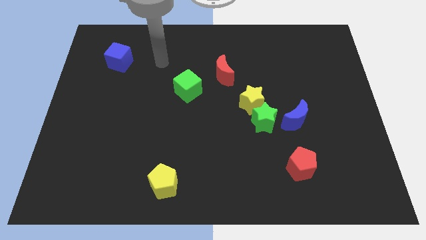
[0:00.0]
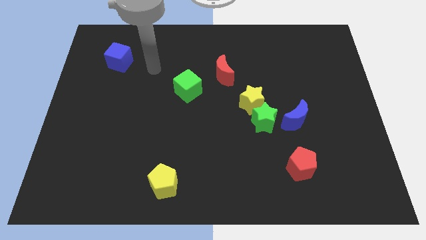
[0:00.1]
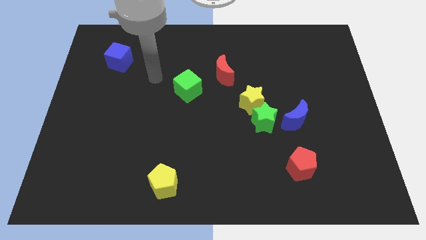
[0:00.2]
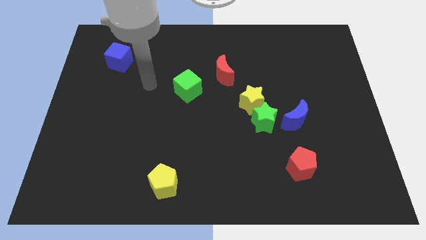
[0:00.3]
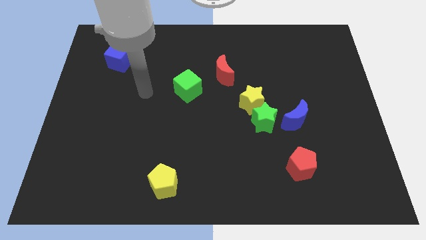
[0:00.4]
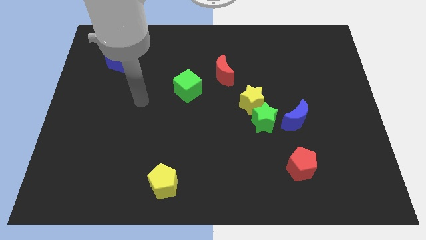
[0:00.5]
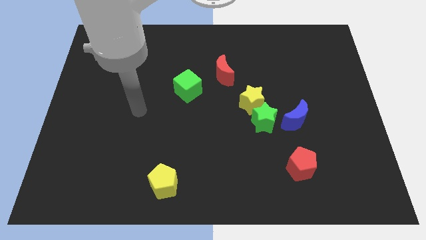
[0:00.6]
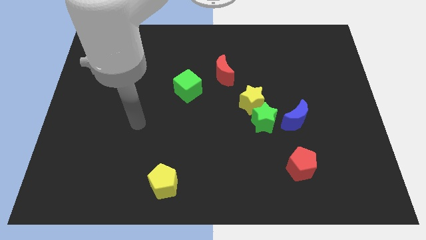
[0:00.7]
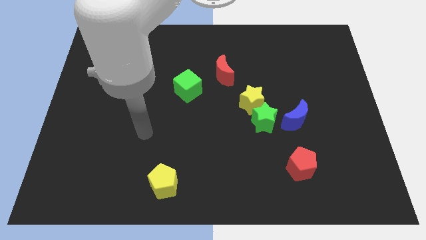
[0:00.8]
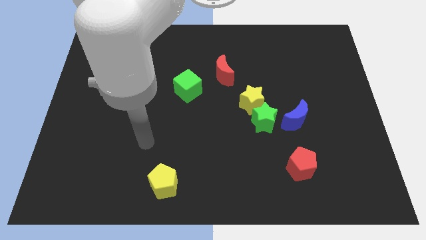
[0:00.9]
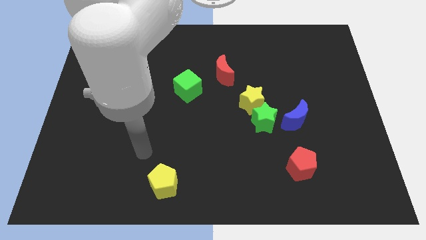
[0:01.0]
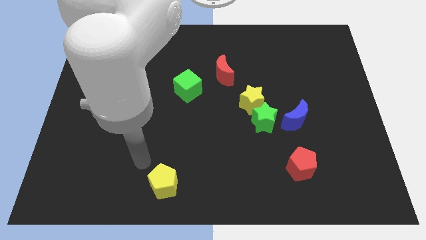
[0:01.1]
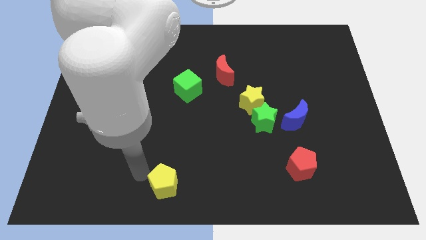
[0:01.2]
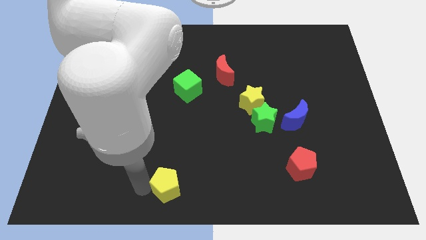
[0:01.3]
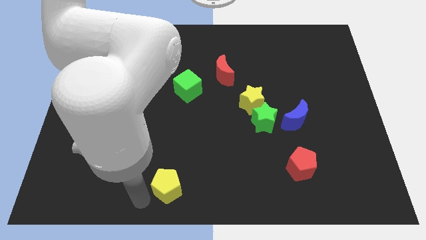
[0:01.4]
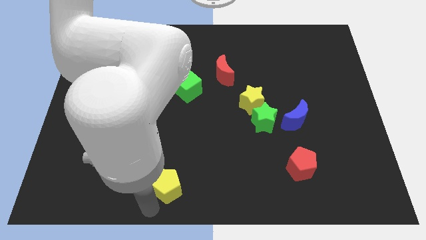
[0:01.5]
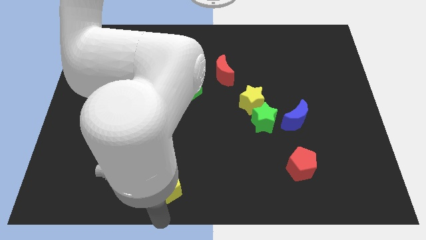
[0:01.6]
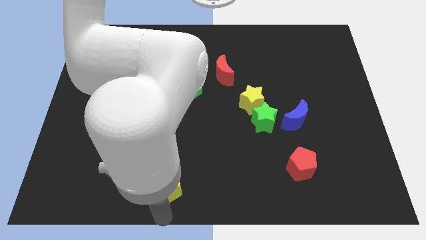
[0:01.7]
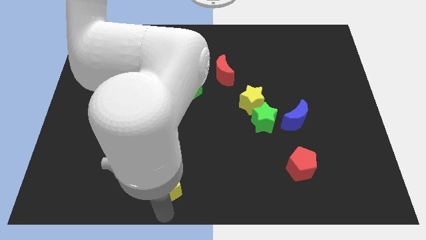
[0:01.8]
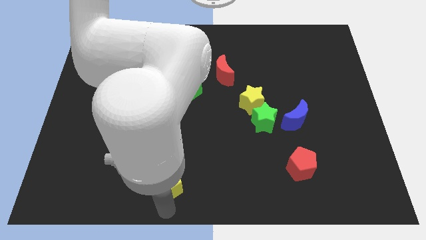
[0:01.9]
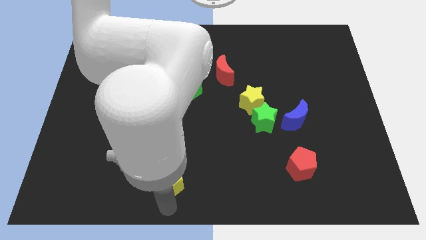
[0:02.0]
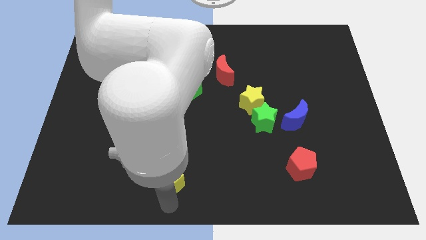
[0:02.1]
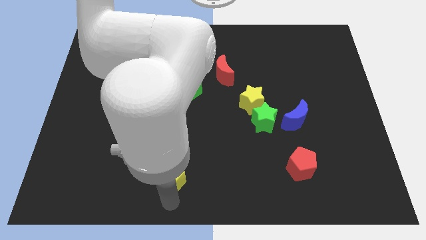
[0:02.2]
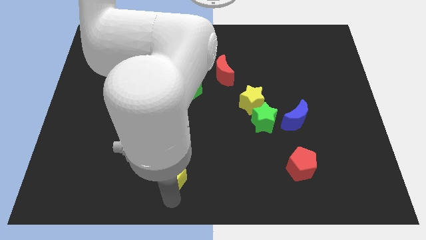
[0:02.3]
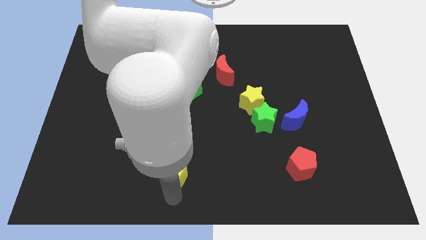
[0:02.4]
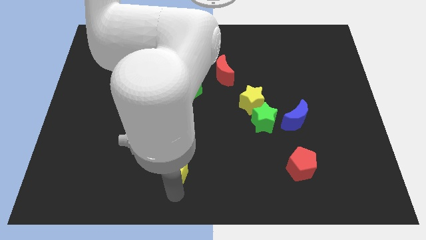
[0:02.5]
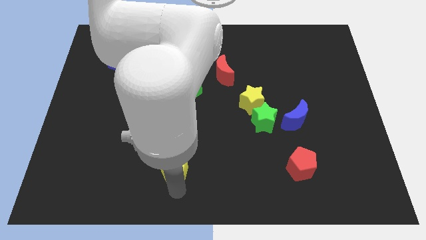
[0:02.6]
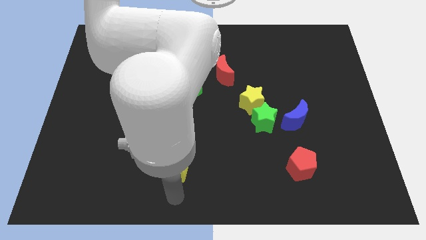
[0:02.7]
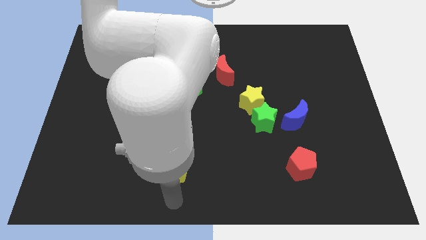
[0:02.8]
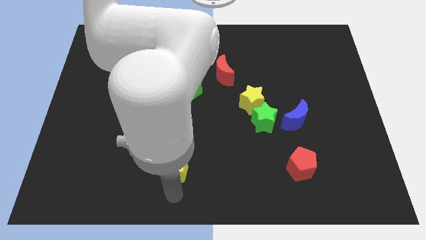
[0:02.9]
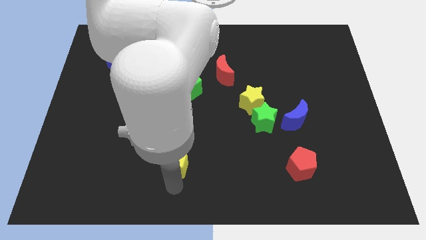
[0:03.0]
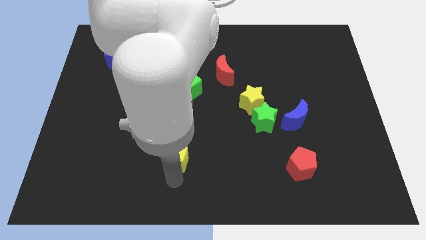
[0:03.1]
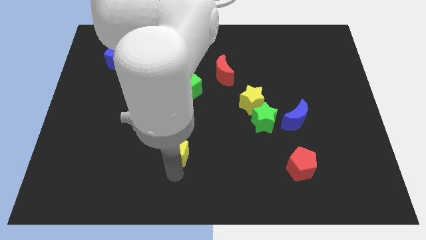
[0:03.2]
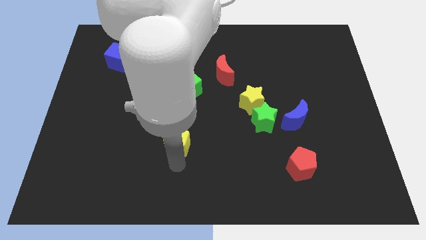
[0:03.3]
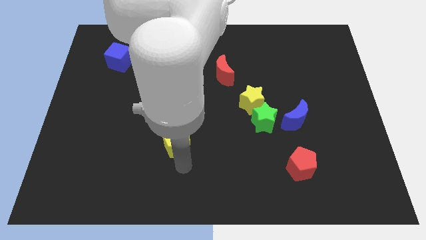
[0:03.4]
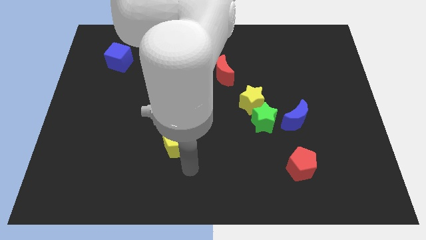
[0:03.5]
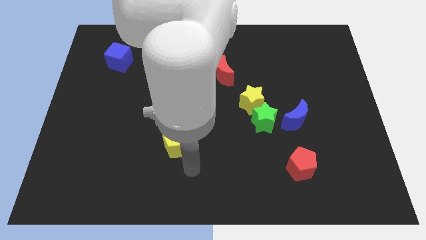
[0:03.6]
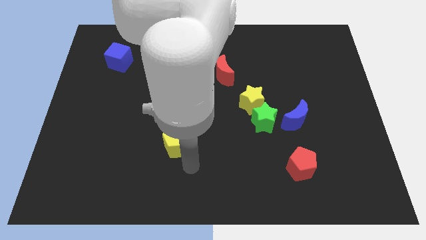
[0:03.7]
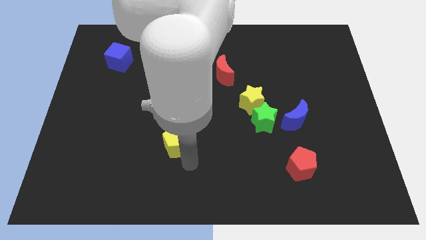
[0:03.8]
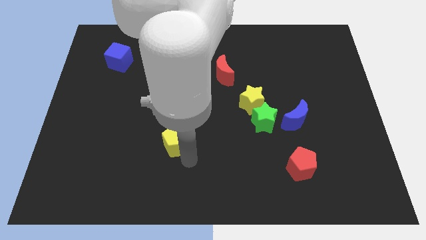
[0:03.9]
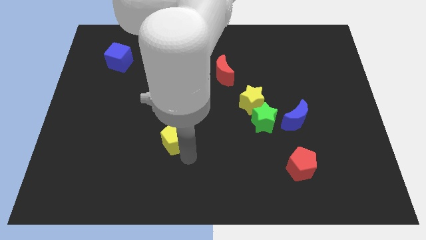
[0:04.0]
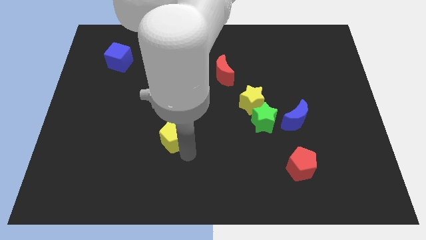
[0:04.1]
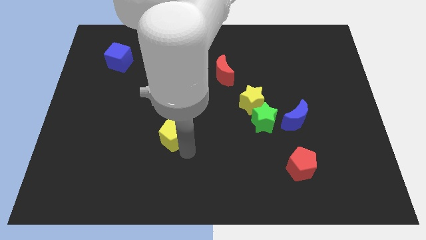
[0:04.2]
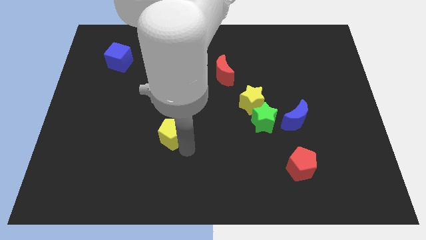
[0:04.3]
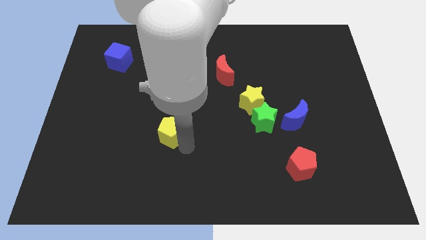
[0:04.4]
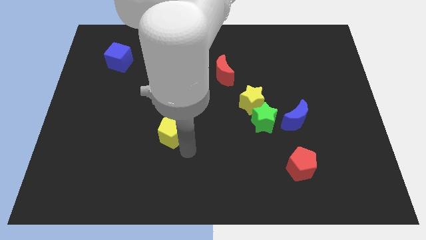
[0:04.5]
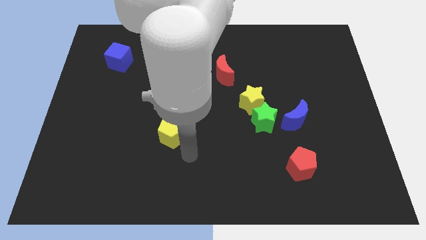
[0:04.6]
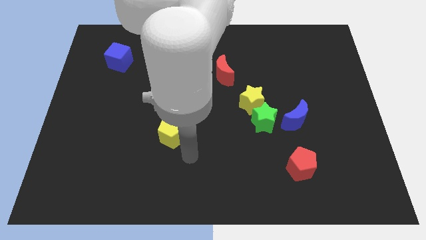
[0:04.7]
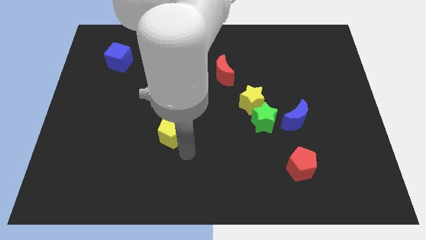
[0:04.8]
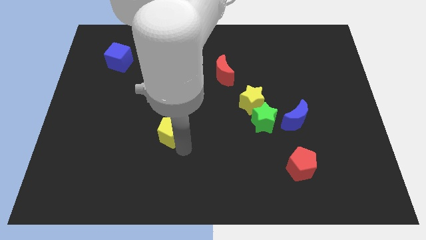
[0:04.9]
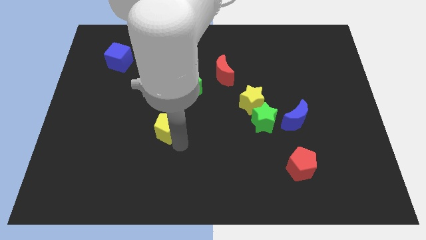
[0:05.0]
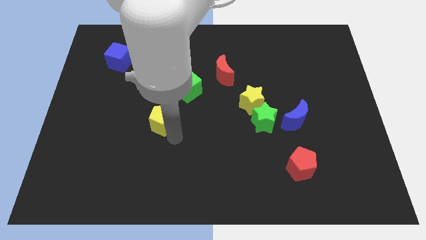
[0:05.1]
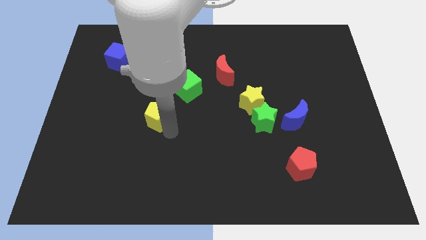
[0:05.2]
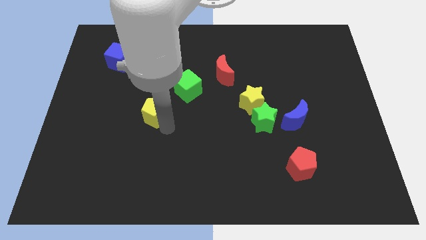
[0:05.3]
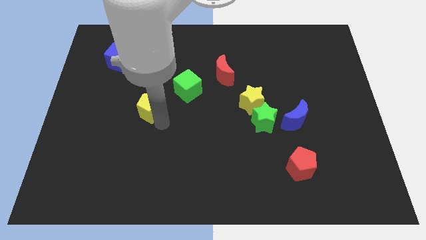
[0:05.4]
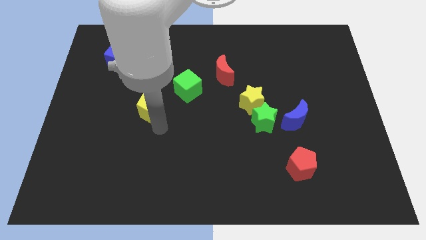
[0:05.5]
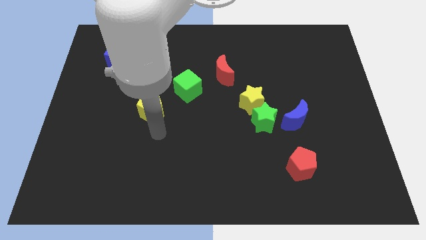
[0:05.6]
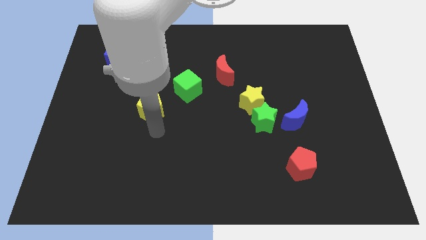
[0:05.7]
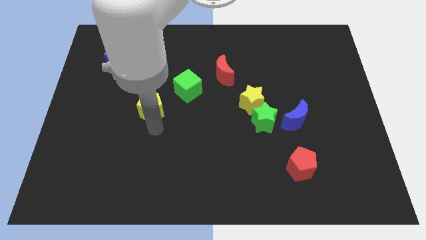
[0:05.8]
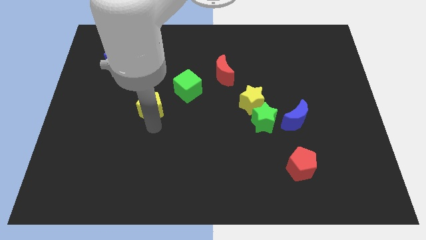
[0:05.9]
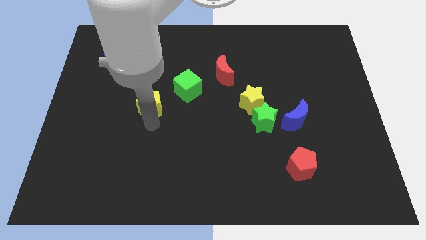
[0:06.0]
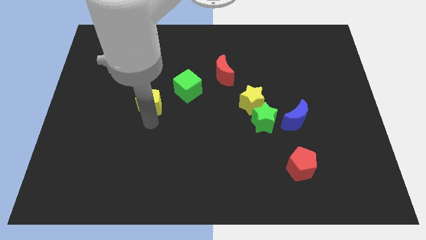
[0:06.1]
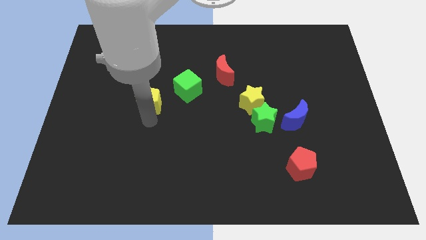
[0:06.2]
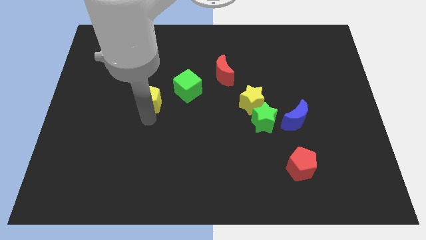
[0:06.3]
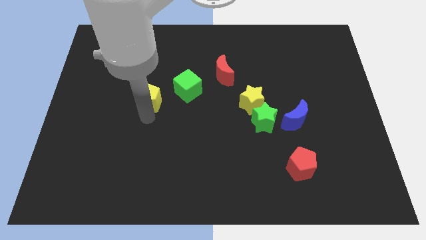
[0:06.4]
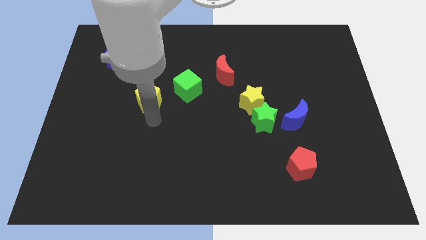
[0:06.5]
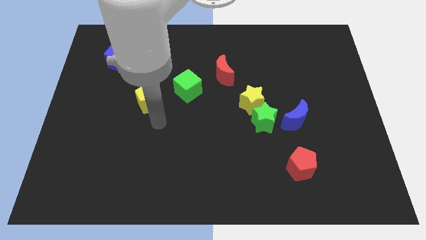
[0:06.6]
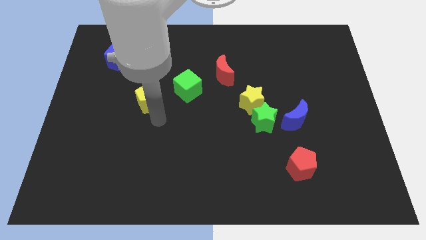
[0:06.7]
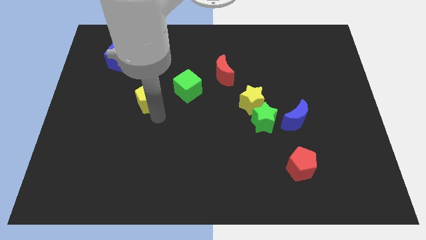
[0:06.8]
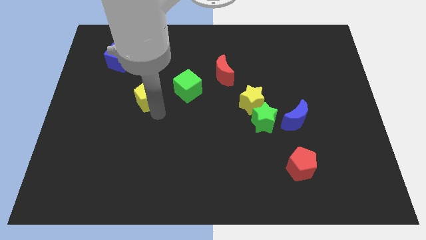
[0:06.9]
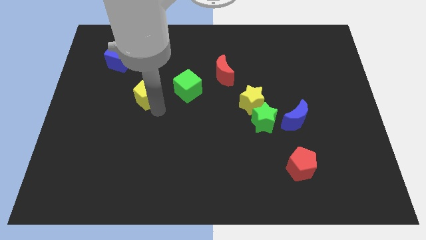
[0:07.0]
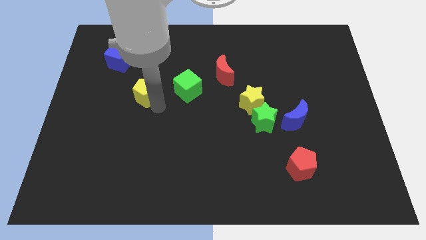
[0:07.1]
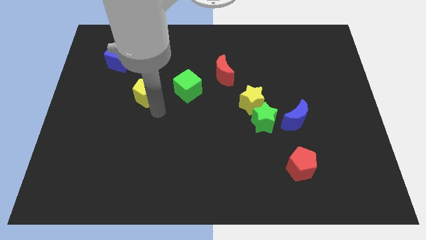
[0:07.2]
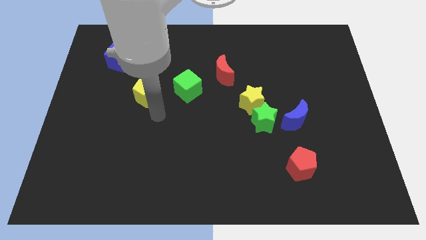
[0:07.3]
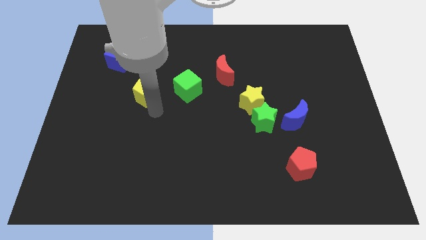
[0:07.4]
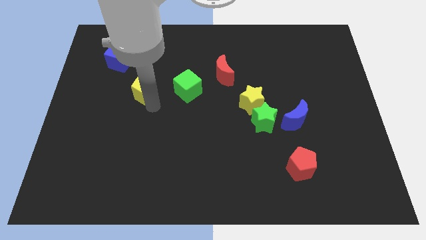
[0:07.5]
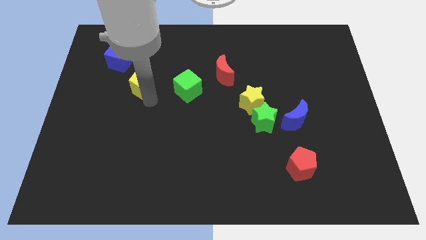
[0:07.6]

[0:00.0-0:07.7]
move the yellow pentagon to the bottom right of the blue cube
